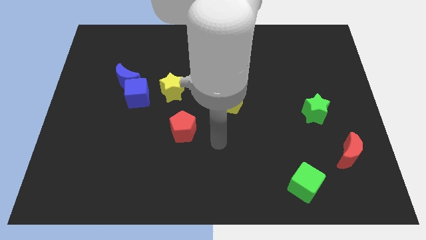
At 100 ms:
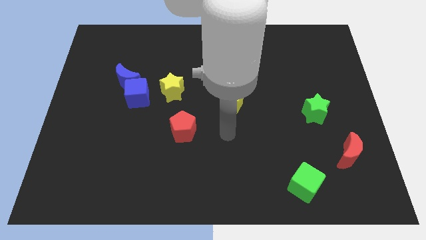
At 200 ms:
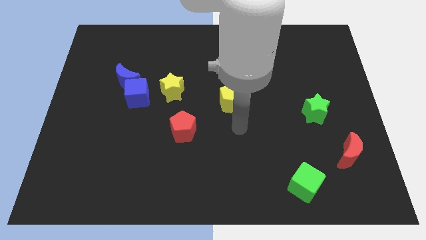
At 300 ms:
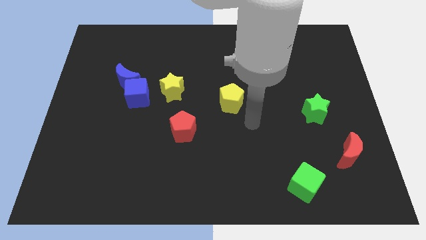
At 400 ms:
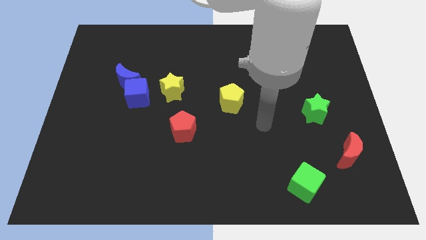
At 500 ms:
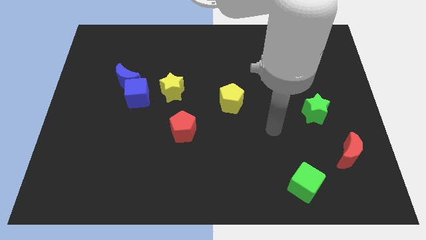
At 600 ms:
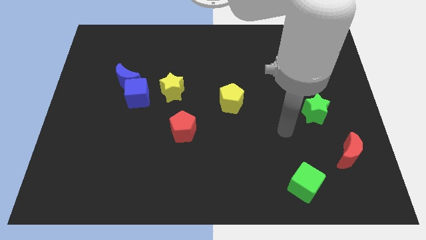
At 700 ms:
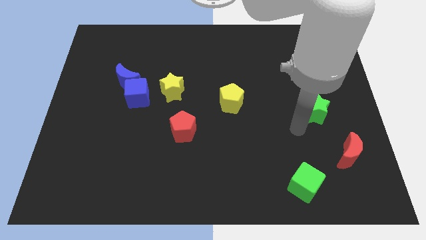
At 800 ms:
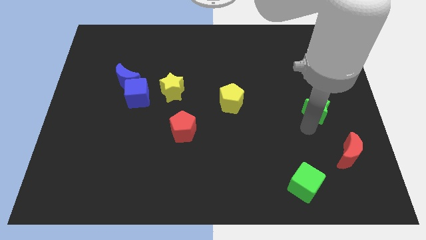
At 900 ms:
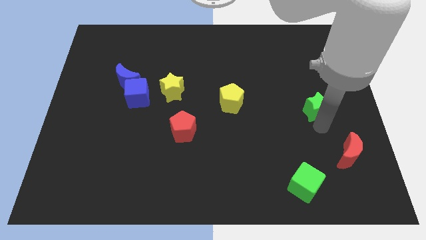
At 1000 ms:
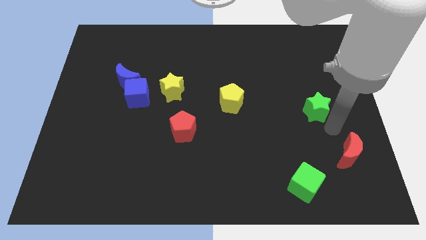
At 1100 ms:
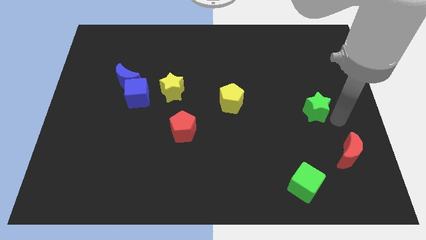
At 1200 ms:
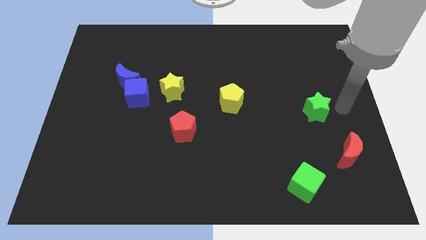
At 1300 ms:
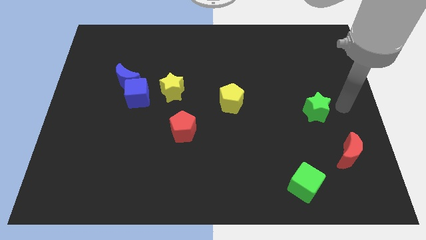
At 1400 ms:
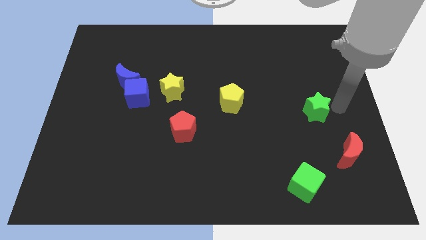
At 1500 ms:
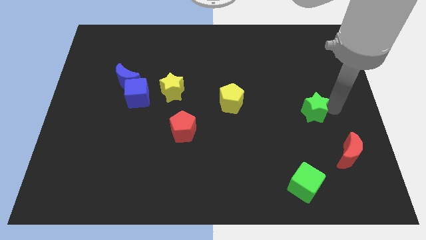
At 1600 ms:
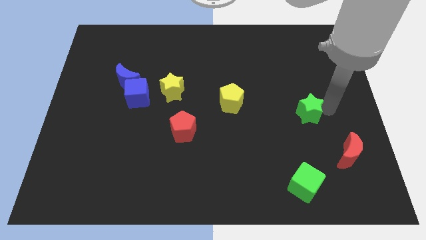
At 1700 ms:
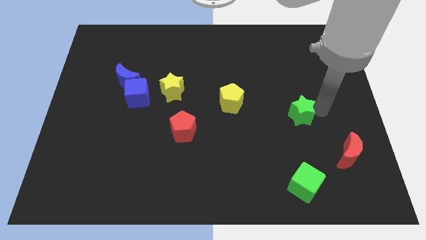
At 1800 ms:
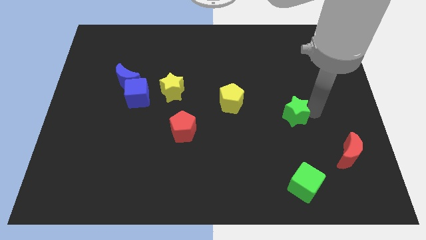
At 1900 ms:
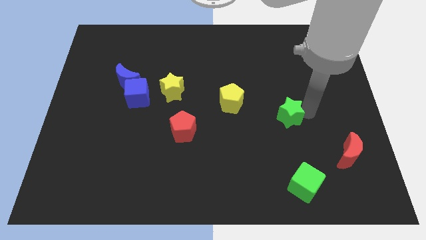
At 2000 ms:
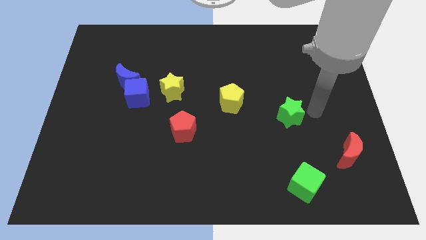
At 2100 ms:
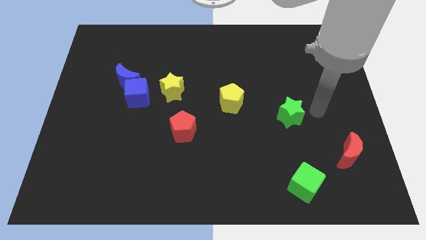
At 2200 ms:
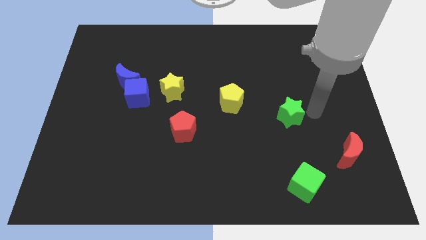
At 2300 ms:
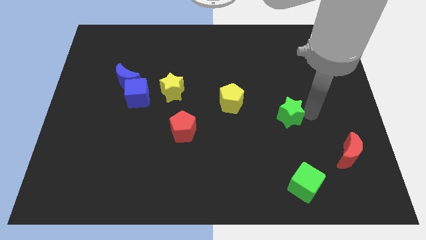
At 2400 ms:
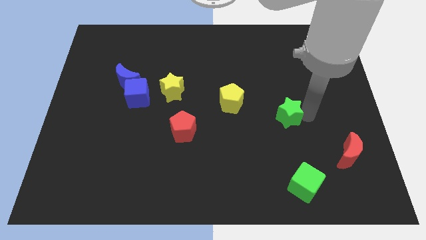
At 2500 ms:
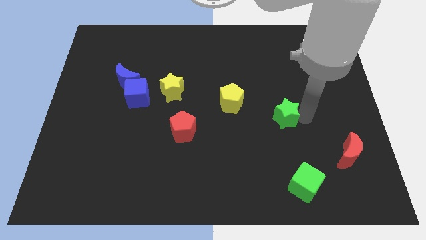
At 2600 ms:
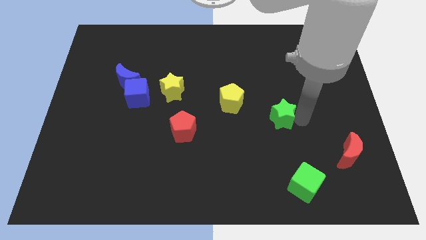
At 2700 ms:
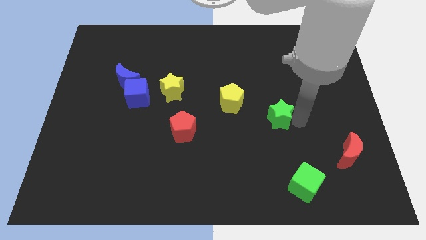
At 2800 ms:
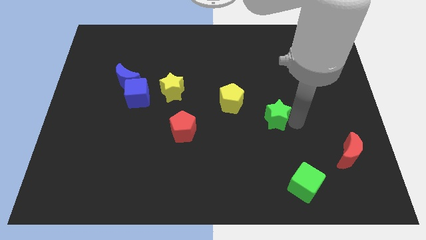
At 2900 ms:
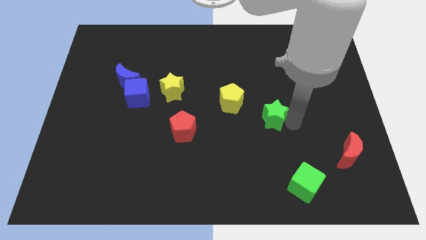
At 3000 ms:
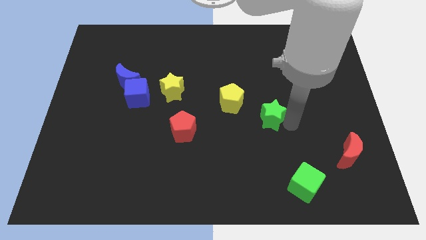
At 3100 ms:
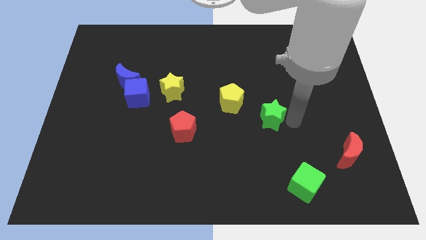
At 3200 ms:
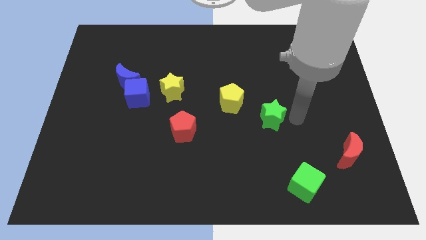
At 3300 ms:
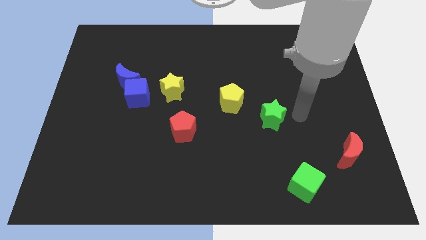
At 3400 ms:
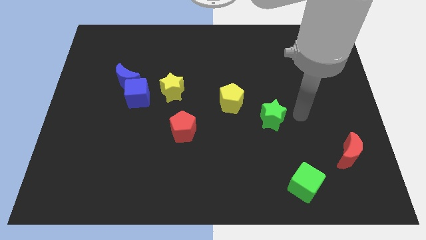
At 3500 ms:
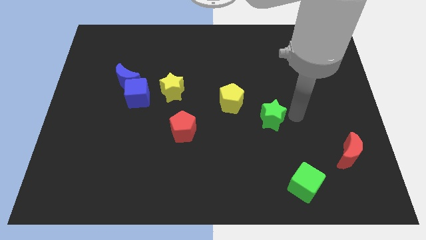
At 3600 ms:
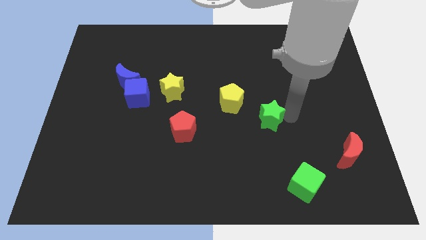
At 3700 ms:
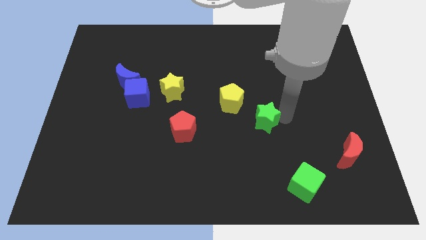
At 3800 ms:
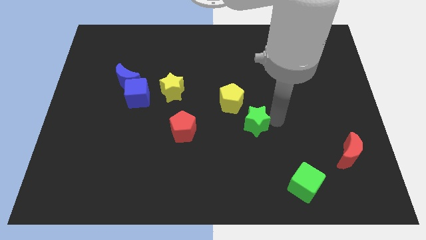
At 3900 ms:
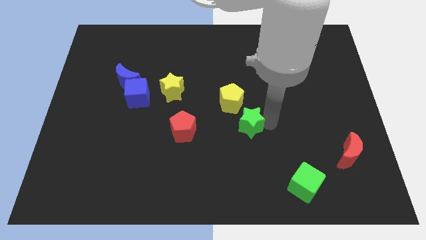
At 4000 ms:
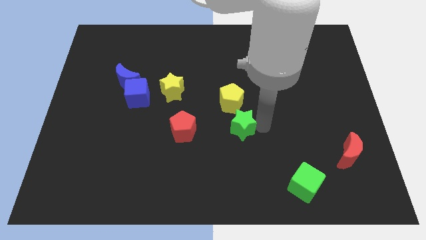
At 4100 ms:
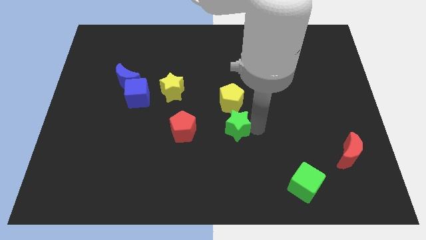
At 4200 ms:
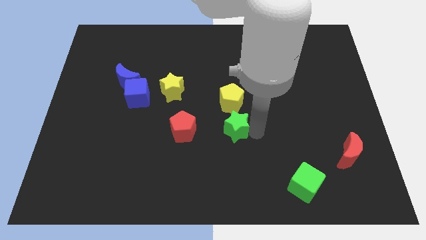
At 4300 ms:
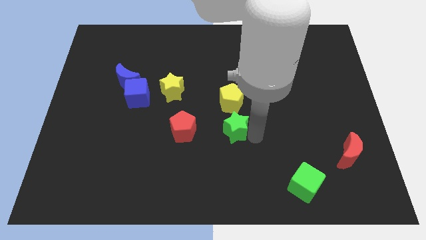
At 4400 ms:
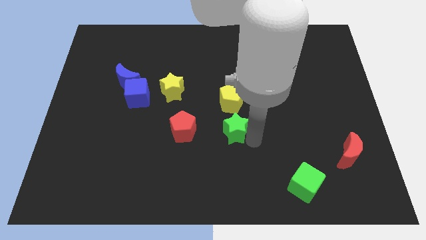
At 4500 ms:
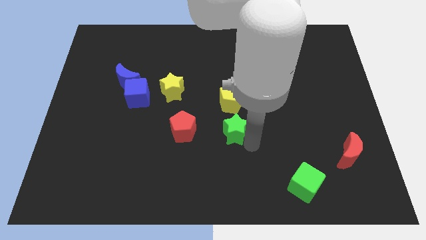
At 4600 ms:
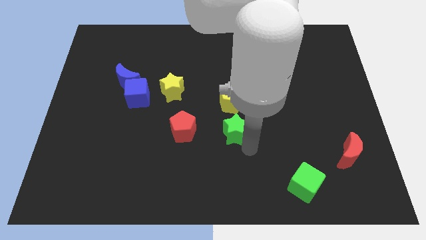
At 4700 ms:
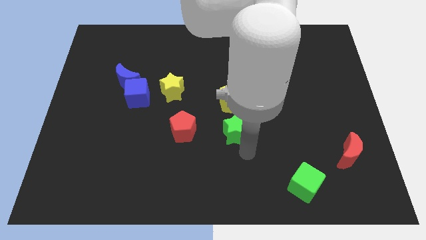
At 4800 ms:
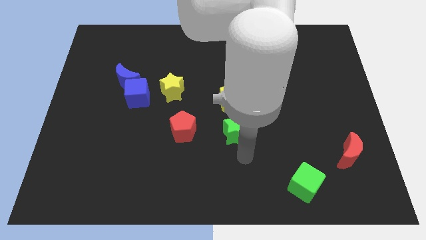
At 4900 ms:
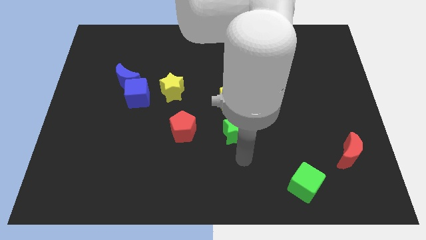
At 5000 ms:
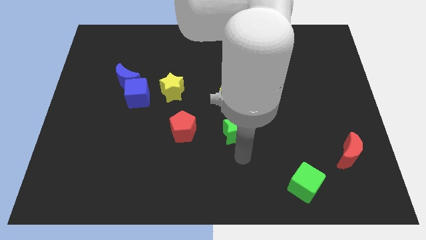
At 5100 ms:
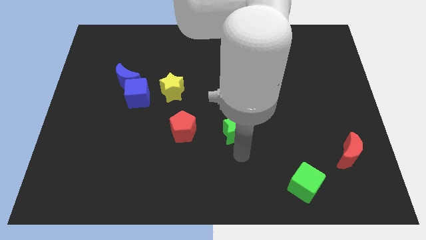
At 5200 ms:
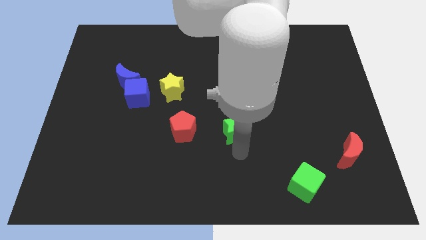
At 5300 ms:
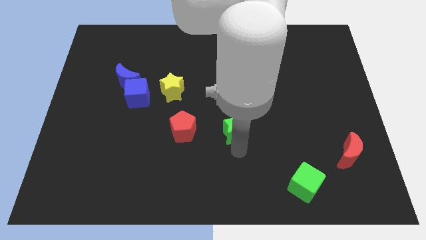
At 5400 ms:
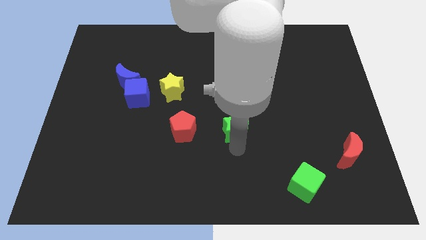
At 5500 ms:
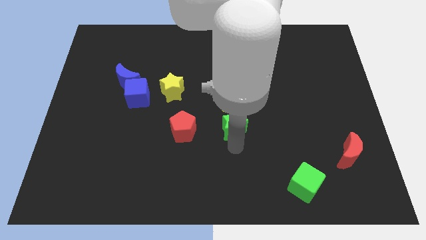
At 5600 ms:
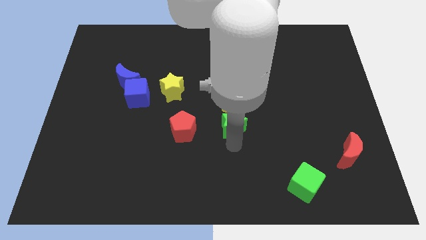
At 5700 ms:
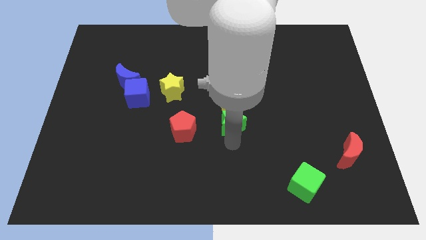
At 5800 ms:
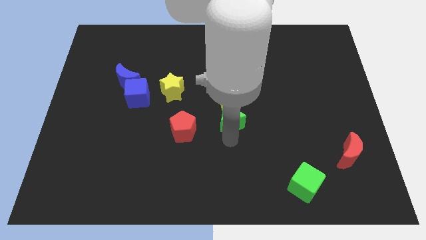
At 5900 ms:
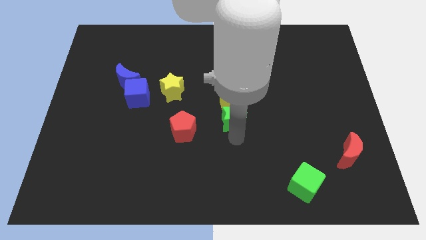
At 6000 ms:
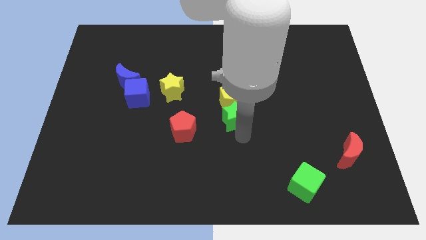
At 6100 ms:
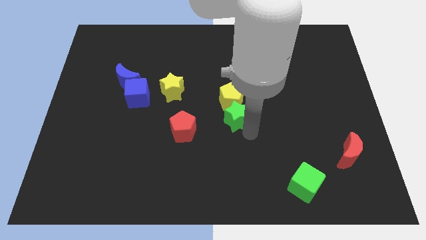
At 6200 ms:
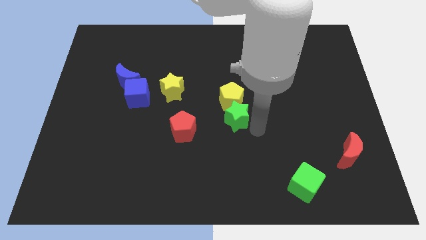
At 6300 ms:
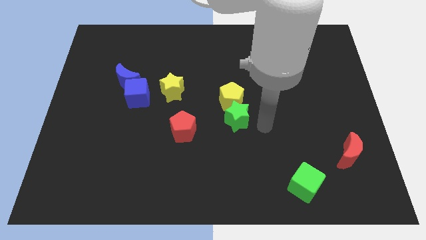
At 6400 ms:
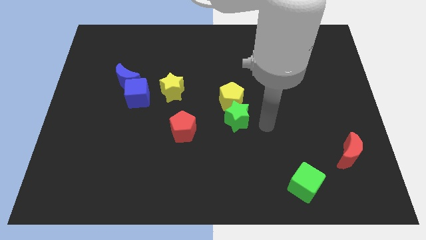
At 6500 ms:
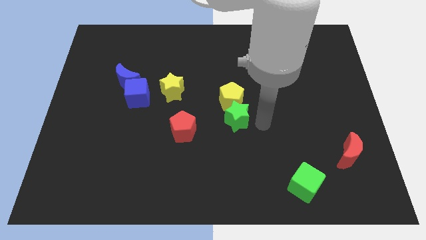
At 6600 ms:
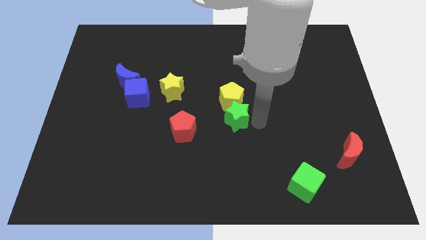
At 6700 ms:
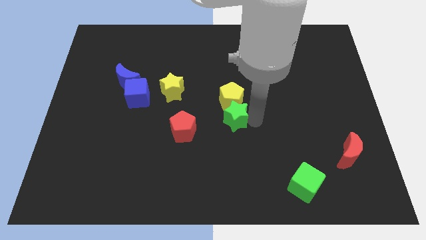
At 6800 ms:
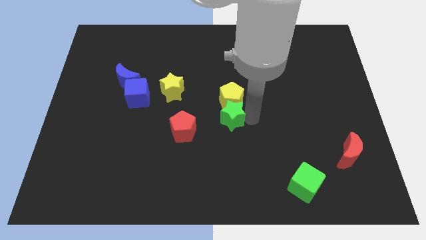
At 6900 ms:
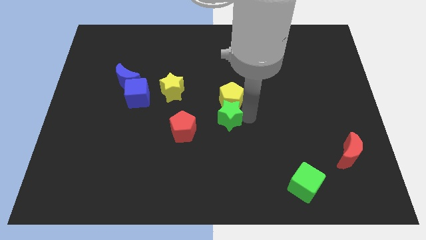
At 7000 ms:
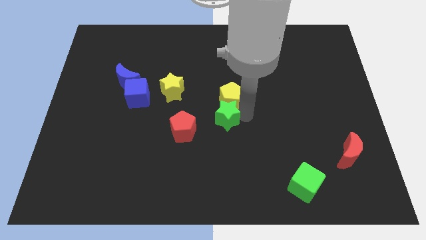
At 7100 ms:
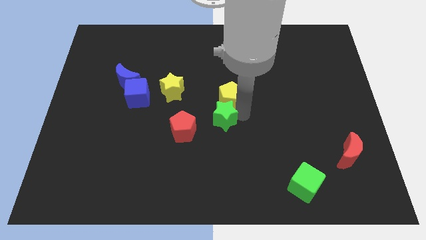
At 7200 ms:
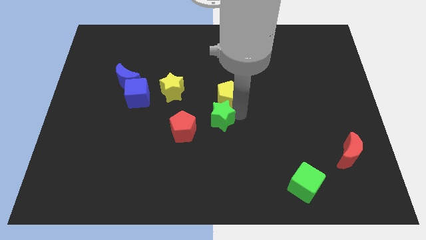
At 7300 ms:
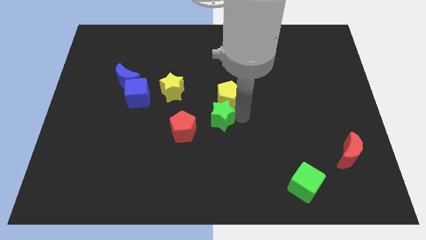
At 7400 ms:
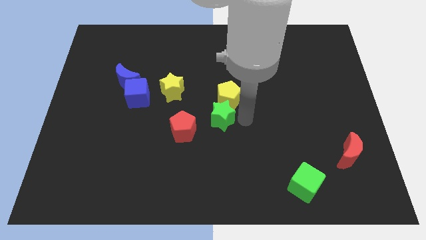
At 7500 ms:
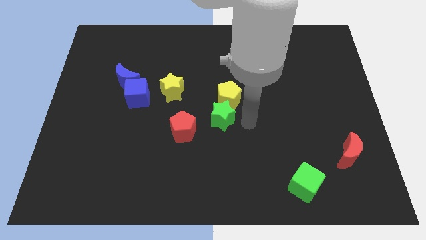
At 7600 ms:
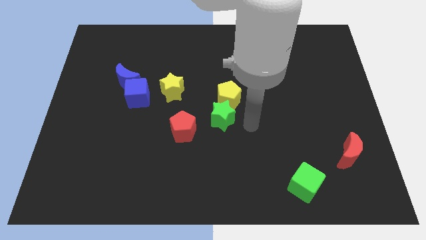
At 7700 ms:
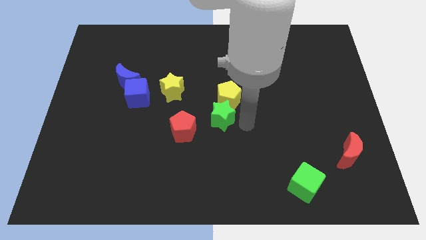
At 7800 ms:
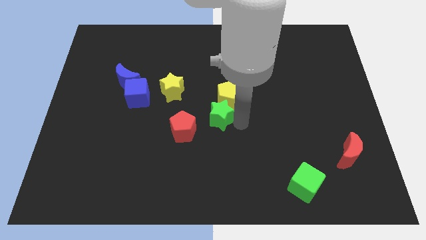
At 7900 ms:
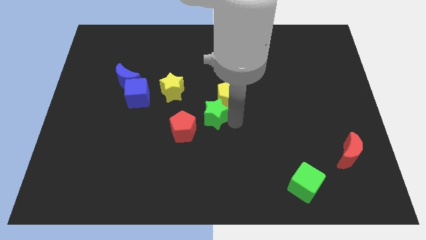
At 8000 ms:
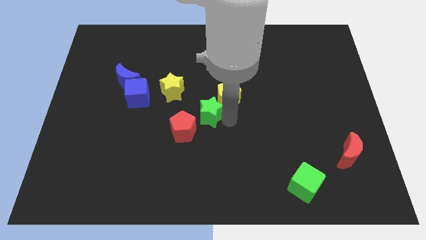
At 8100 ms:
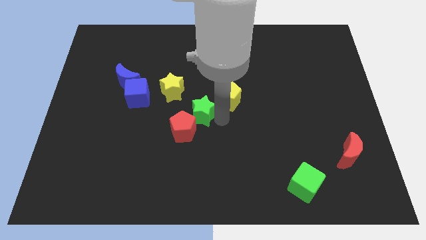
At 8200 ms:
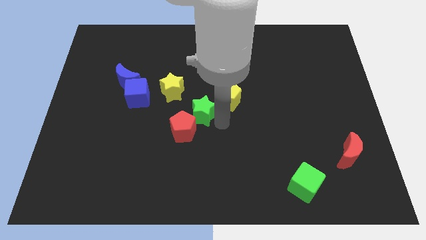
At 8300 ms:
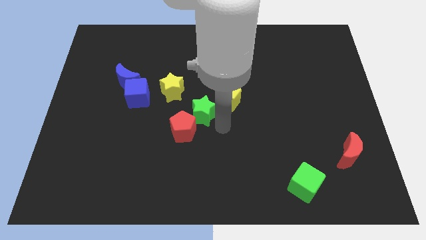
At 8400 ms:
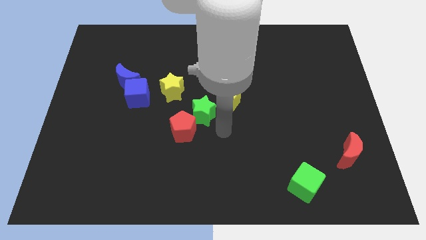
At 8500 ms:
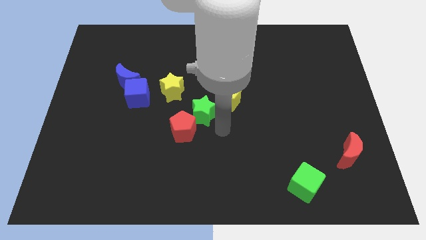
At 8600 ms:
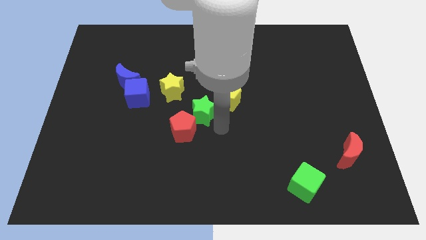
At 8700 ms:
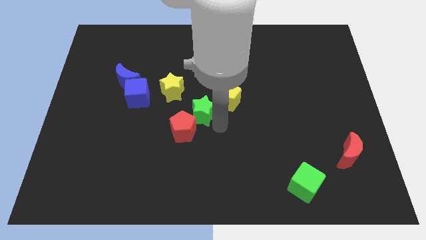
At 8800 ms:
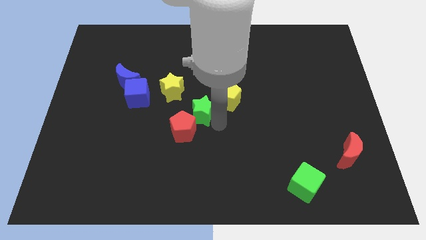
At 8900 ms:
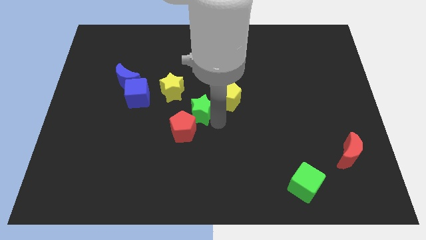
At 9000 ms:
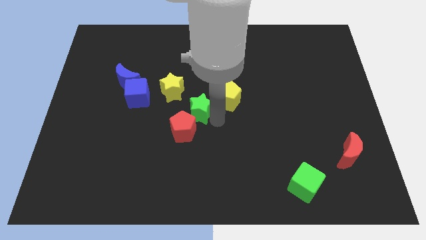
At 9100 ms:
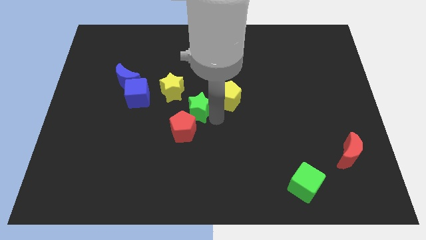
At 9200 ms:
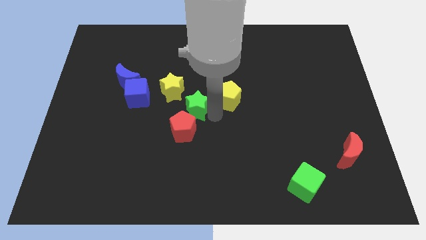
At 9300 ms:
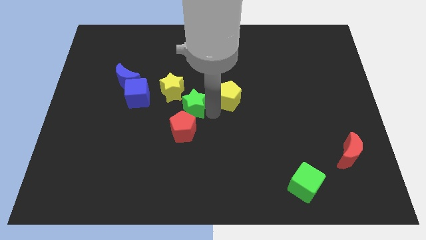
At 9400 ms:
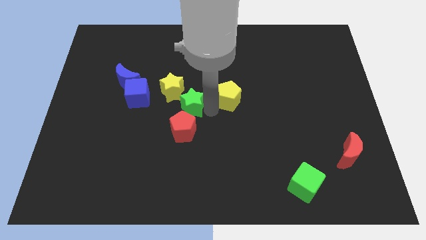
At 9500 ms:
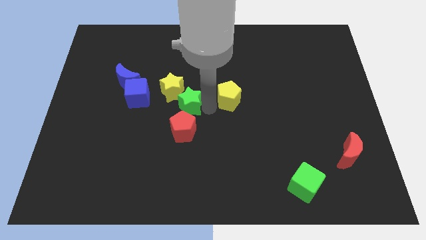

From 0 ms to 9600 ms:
push the green star next to the yellow star
